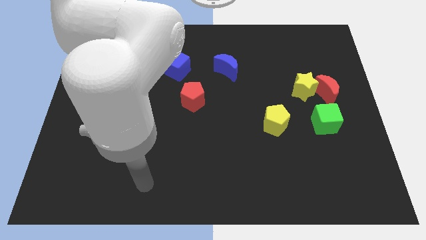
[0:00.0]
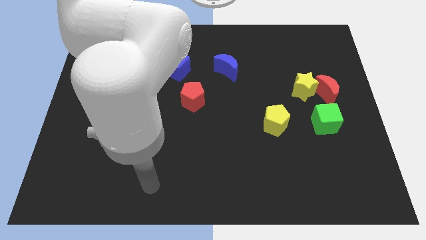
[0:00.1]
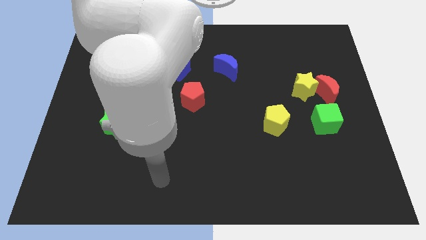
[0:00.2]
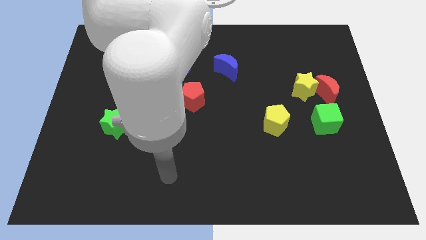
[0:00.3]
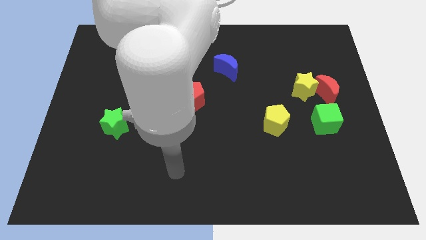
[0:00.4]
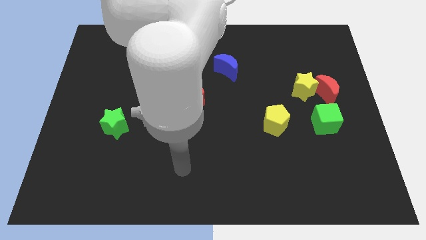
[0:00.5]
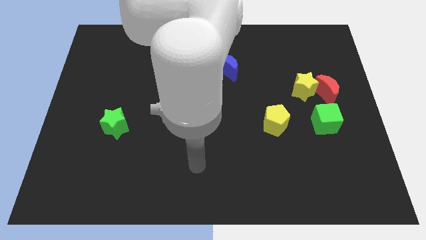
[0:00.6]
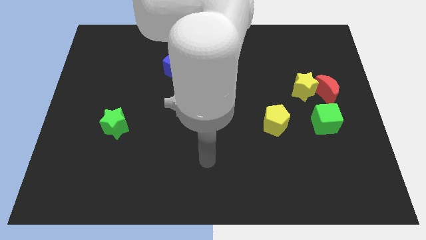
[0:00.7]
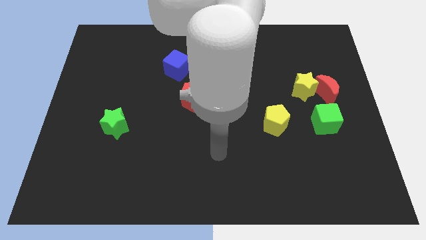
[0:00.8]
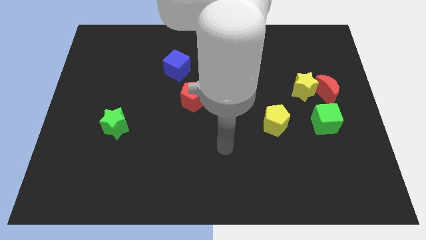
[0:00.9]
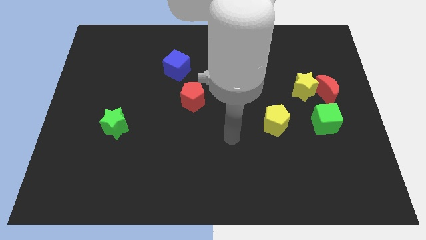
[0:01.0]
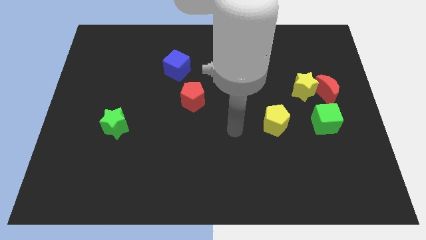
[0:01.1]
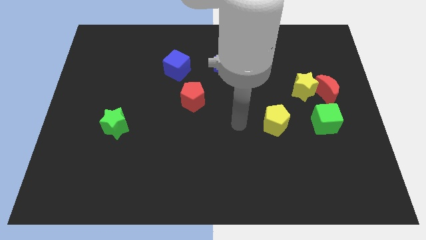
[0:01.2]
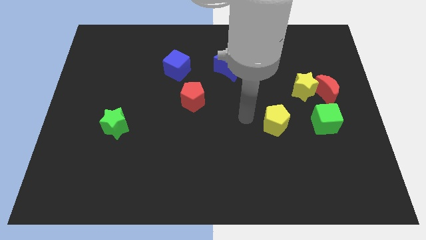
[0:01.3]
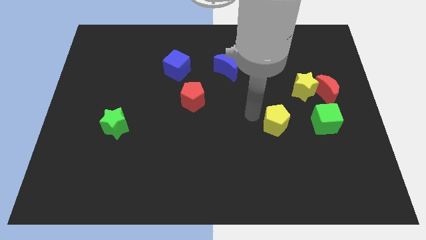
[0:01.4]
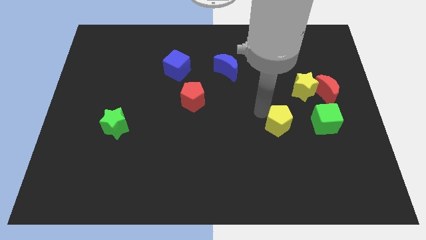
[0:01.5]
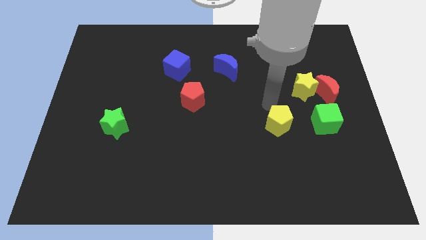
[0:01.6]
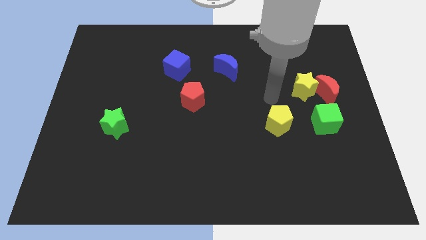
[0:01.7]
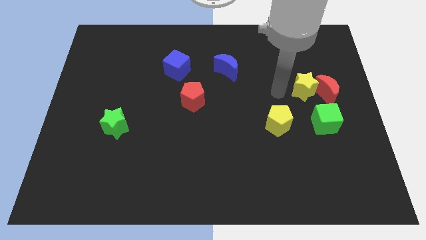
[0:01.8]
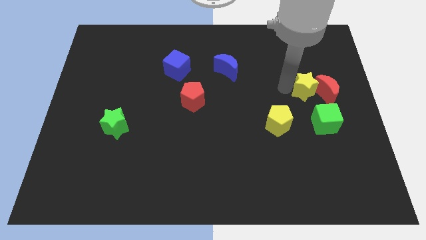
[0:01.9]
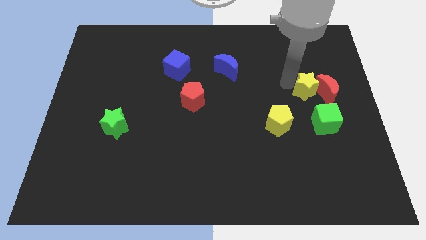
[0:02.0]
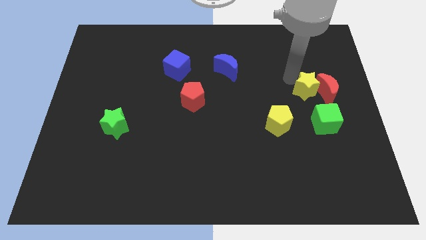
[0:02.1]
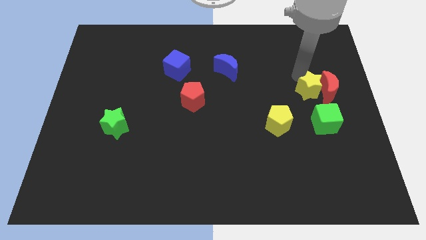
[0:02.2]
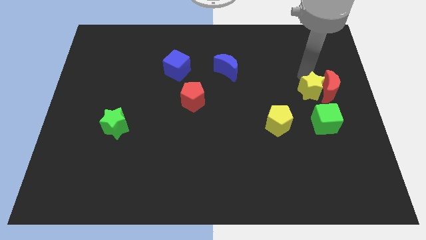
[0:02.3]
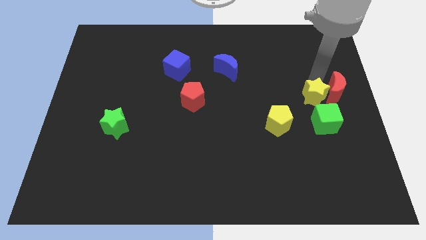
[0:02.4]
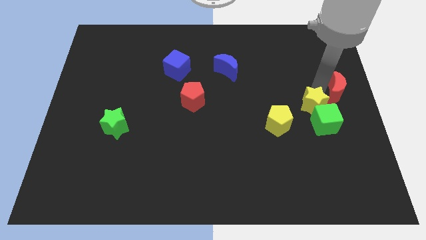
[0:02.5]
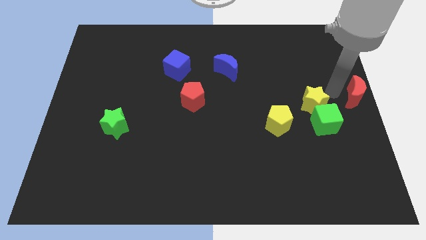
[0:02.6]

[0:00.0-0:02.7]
pull the yellow star apart from the red moon

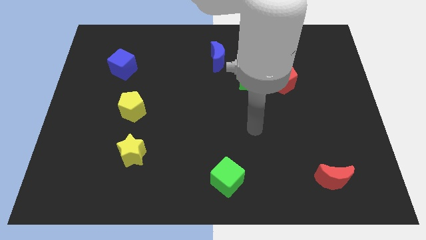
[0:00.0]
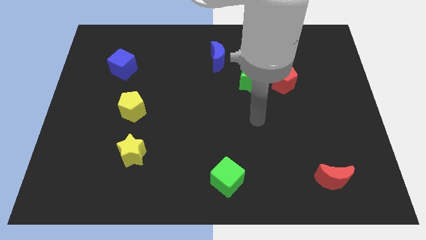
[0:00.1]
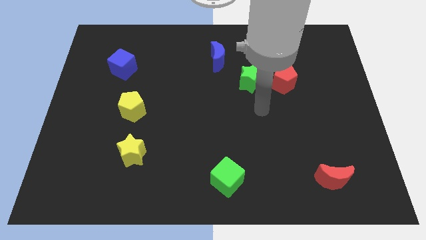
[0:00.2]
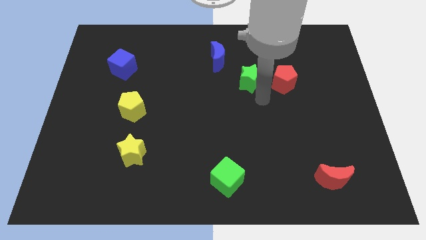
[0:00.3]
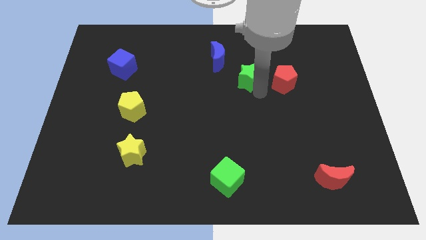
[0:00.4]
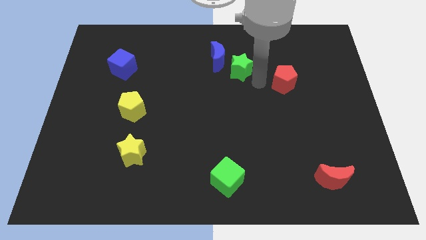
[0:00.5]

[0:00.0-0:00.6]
separate the red pentagon from the green star

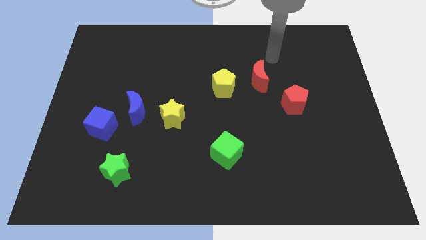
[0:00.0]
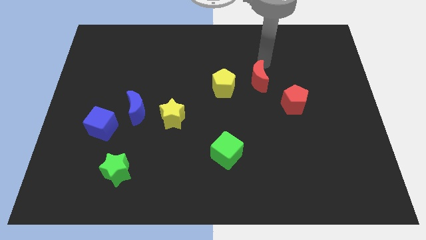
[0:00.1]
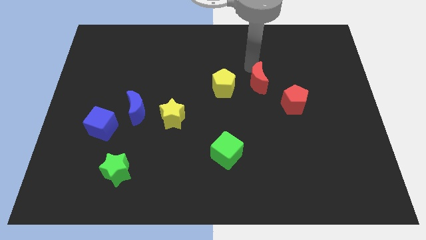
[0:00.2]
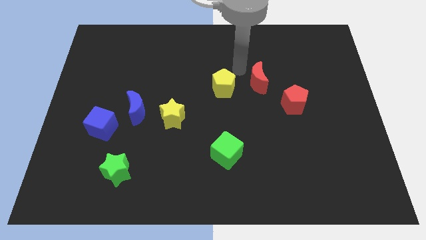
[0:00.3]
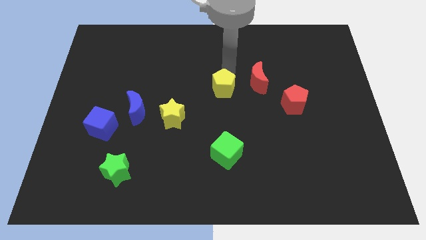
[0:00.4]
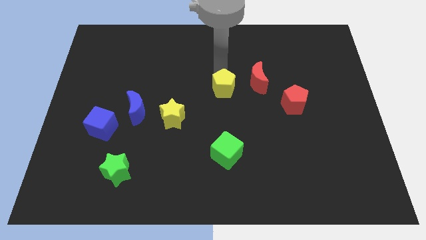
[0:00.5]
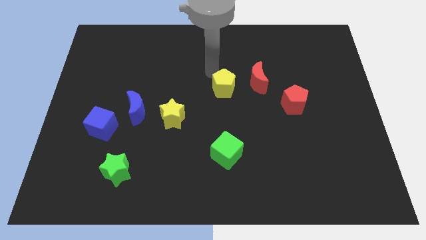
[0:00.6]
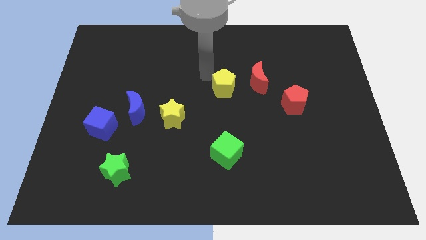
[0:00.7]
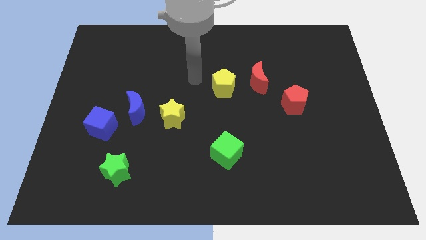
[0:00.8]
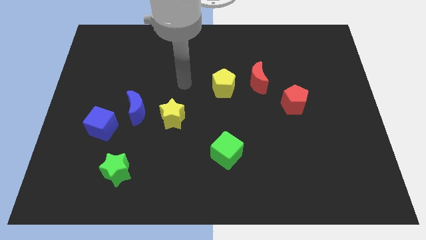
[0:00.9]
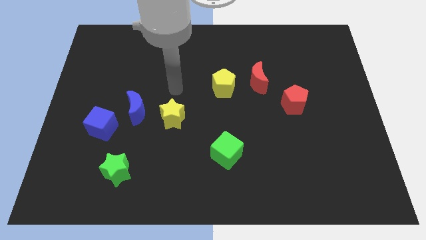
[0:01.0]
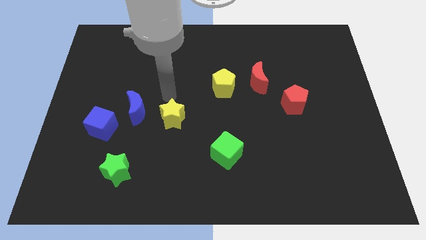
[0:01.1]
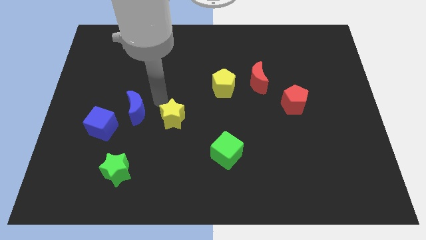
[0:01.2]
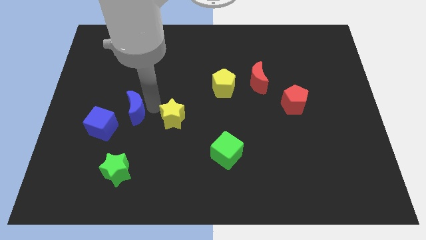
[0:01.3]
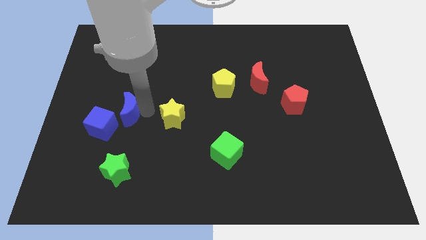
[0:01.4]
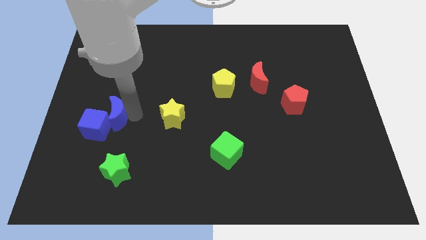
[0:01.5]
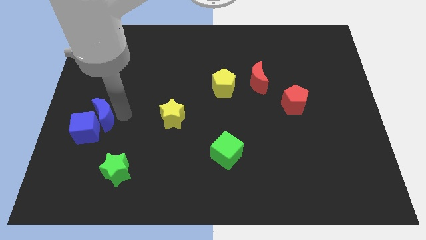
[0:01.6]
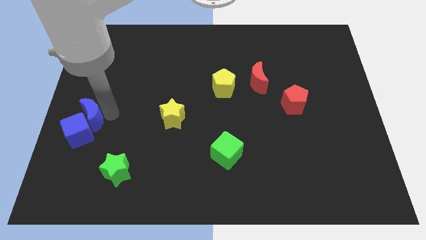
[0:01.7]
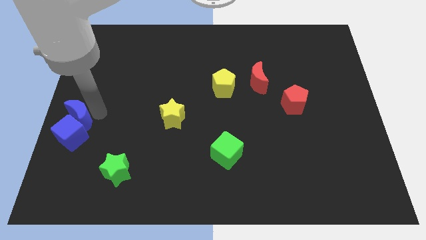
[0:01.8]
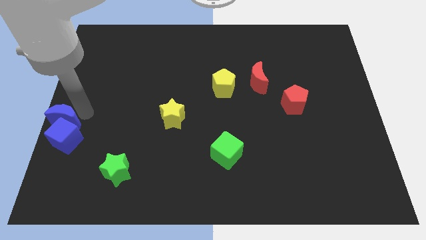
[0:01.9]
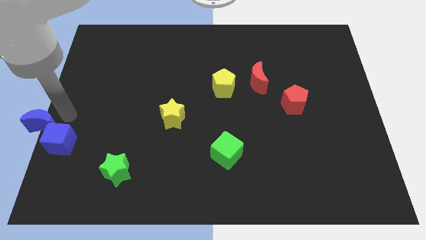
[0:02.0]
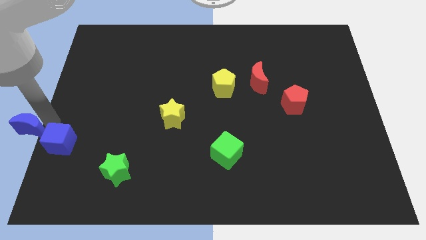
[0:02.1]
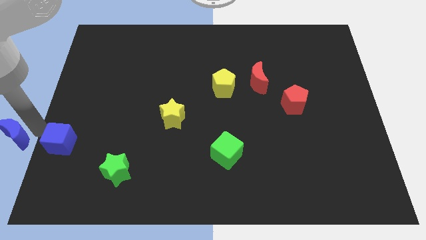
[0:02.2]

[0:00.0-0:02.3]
pull the blue cube apart from the blue moon

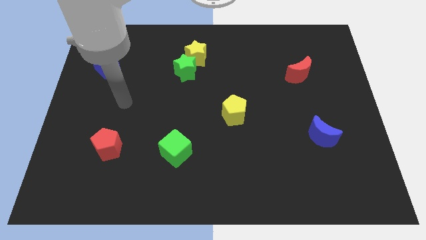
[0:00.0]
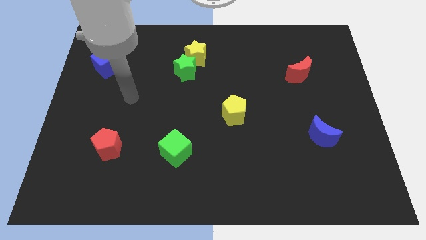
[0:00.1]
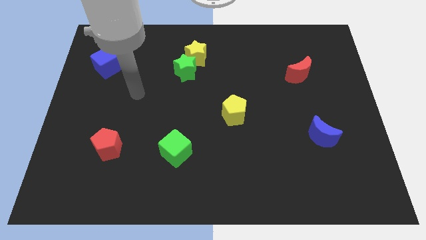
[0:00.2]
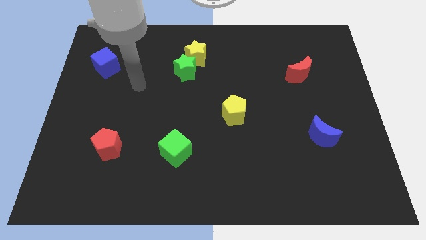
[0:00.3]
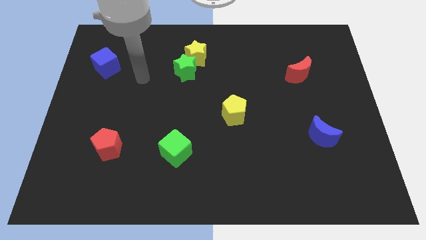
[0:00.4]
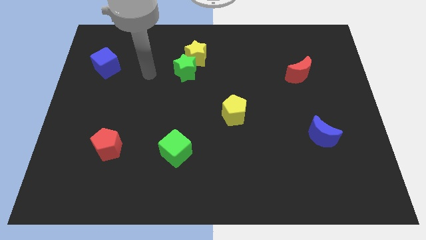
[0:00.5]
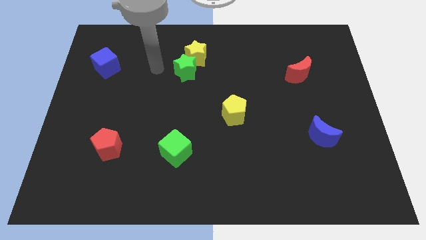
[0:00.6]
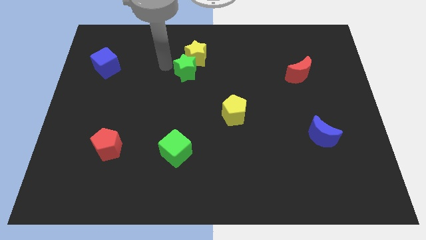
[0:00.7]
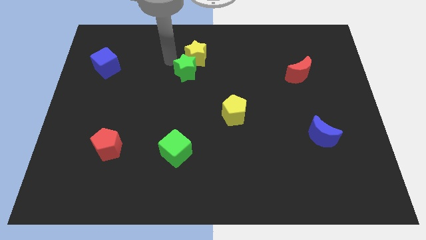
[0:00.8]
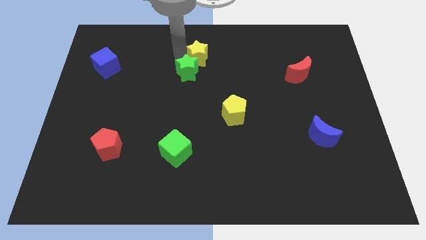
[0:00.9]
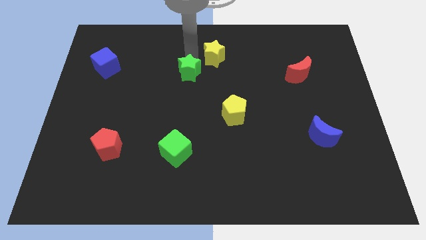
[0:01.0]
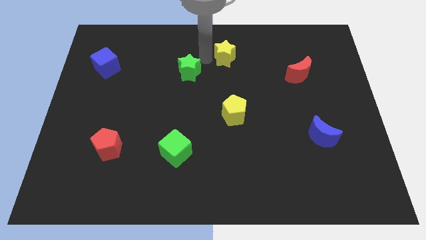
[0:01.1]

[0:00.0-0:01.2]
separate the green star from the yellow star

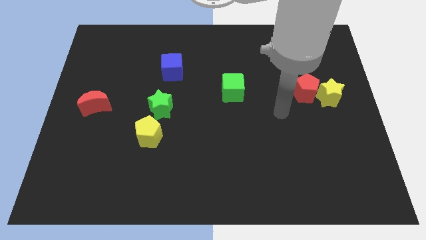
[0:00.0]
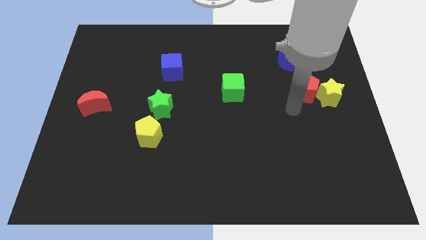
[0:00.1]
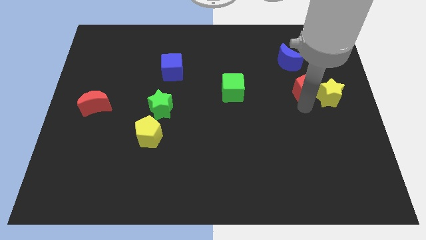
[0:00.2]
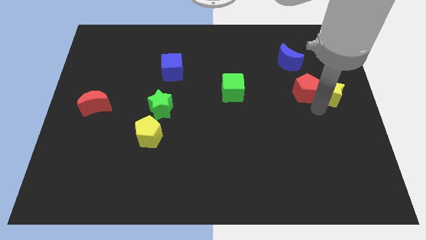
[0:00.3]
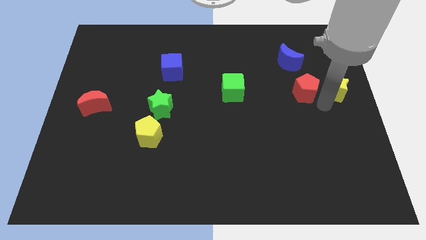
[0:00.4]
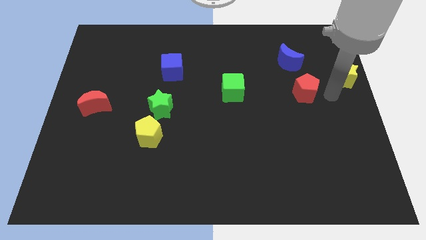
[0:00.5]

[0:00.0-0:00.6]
separate the red pentagon from the yellow star

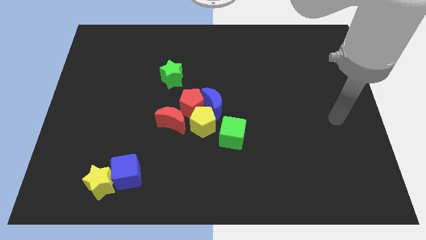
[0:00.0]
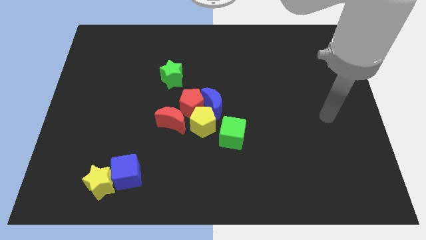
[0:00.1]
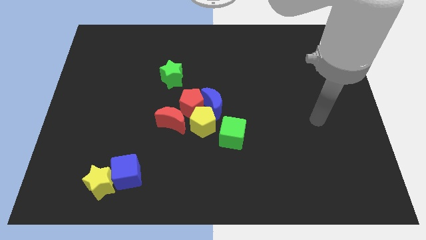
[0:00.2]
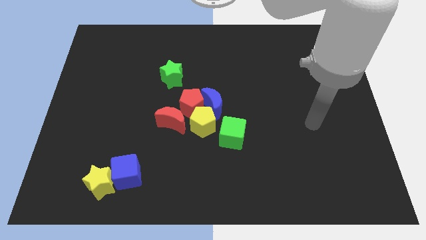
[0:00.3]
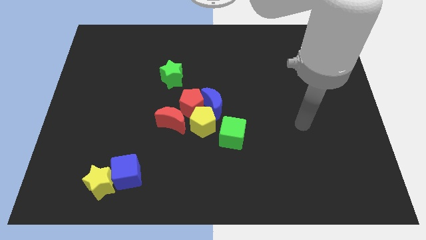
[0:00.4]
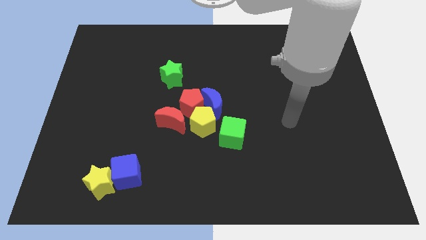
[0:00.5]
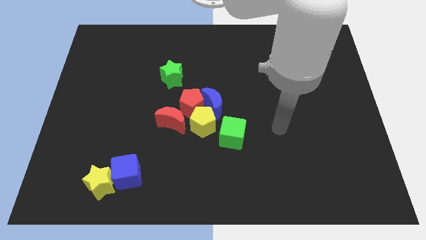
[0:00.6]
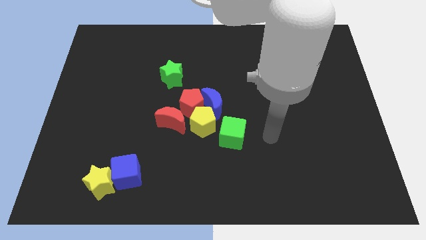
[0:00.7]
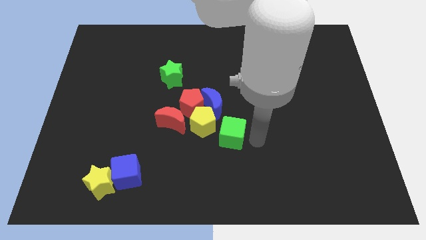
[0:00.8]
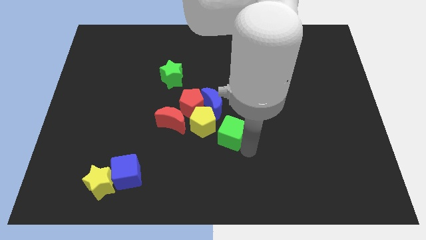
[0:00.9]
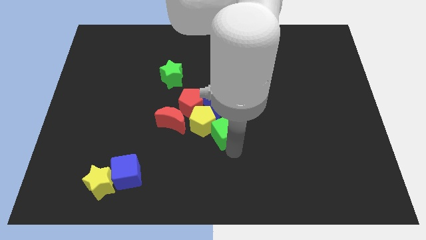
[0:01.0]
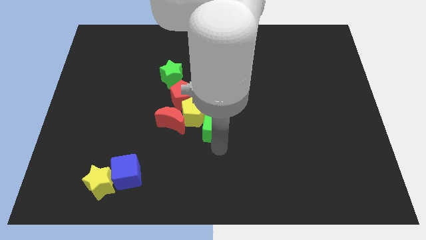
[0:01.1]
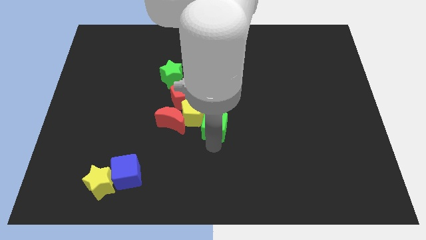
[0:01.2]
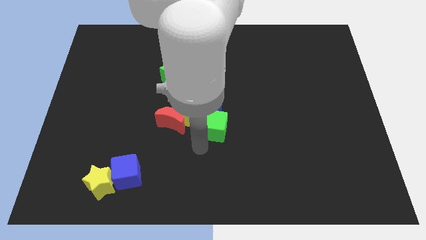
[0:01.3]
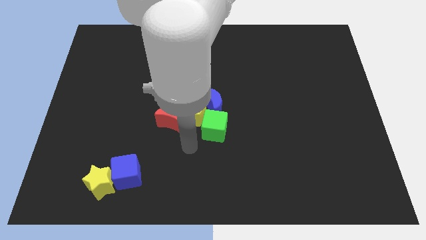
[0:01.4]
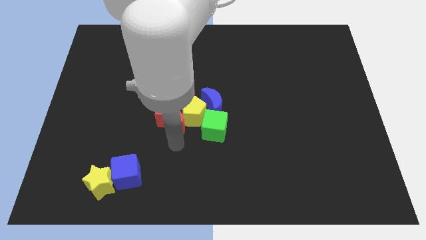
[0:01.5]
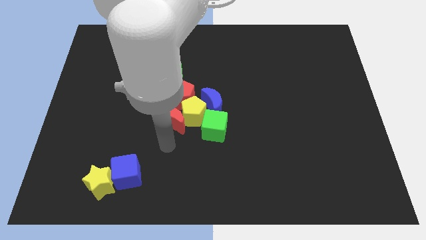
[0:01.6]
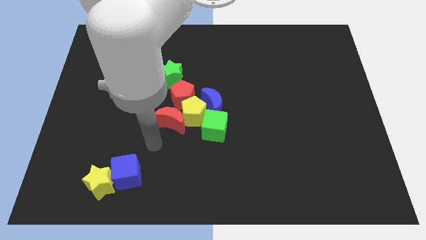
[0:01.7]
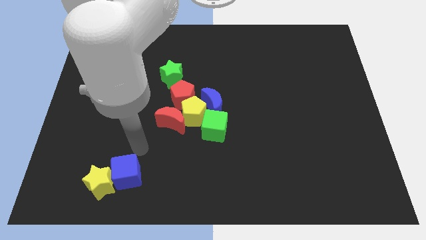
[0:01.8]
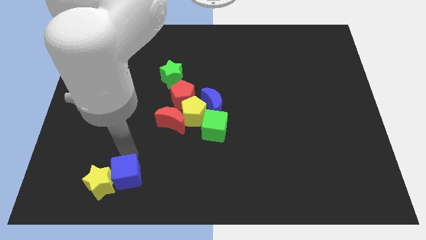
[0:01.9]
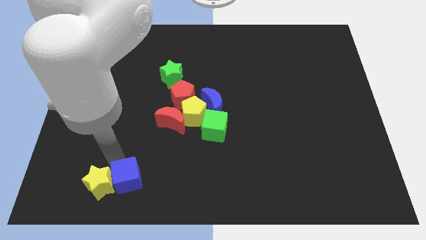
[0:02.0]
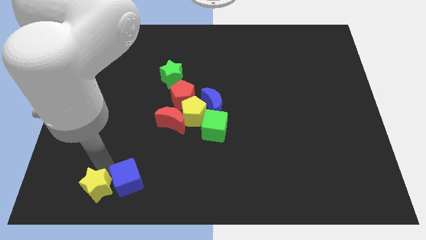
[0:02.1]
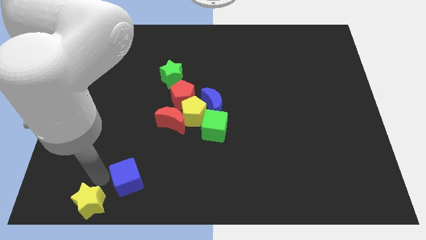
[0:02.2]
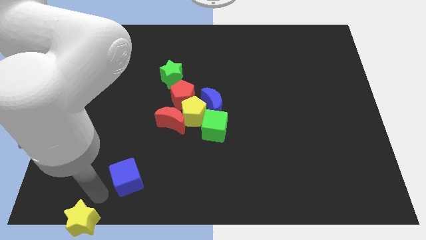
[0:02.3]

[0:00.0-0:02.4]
move the blue cube away from the yellow star